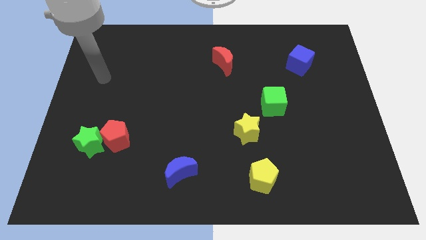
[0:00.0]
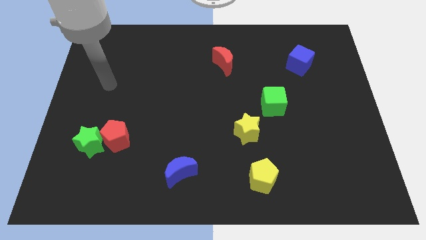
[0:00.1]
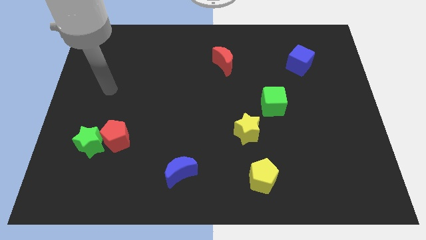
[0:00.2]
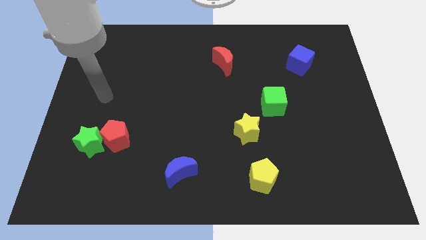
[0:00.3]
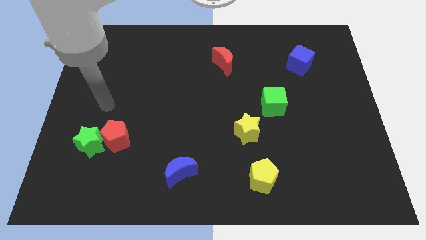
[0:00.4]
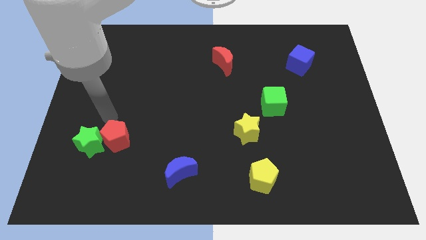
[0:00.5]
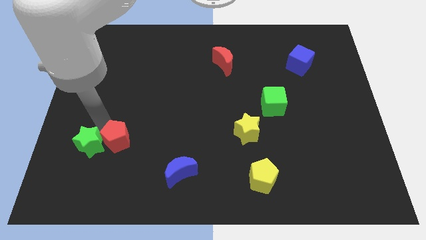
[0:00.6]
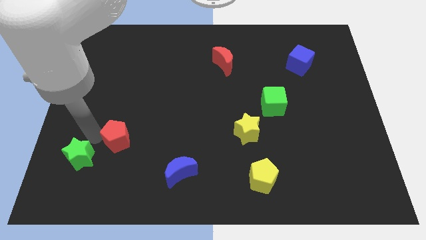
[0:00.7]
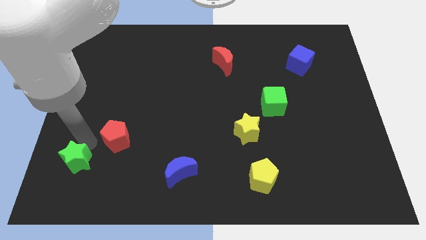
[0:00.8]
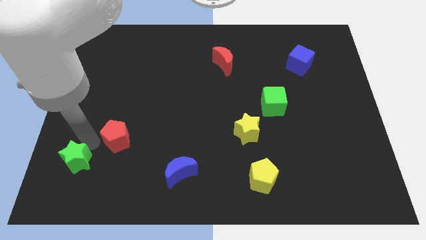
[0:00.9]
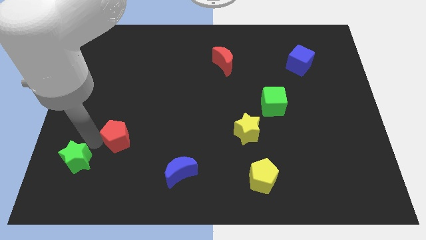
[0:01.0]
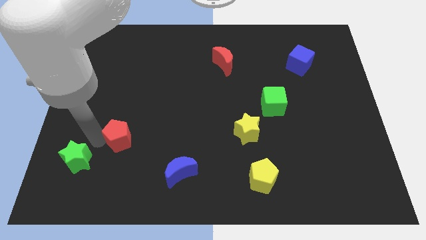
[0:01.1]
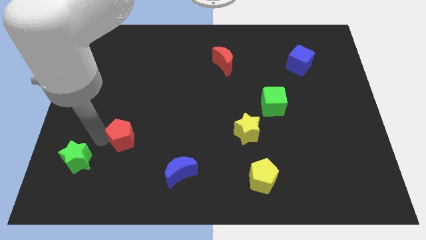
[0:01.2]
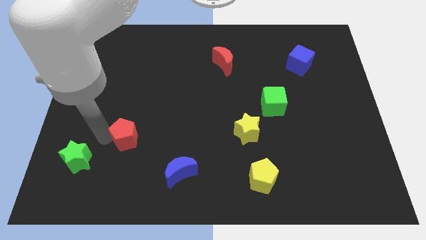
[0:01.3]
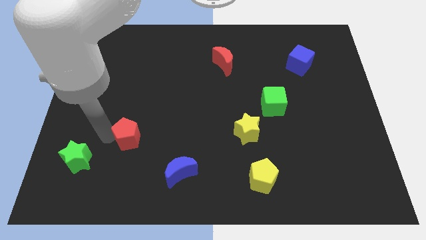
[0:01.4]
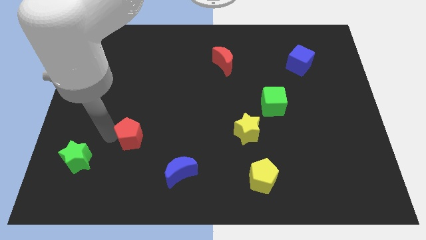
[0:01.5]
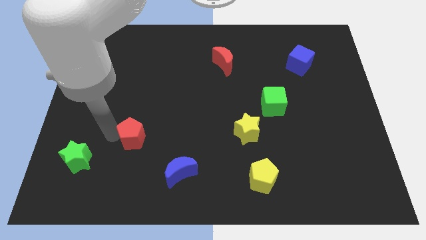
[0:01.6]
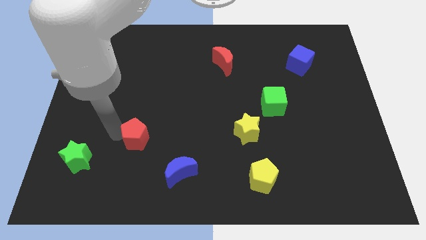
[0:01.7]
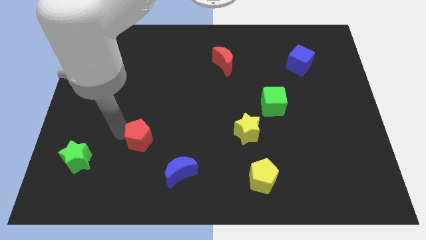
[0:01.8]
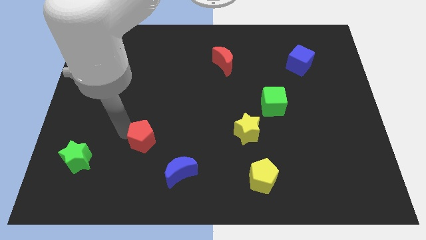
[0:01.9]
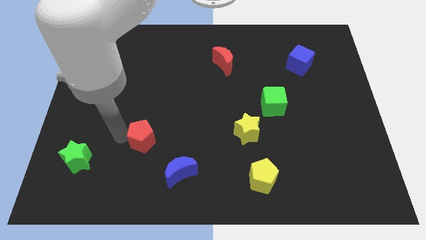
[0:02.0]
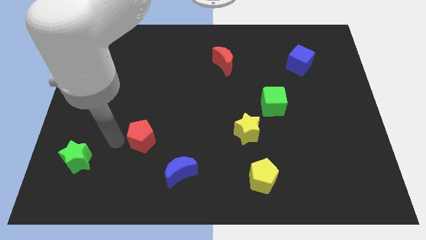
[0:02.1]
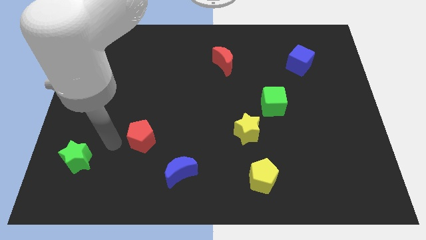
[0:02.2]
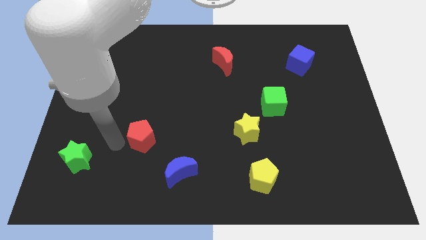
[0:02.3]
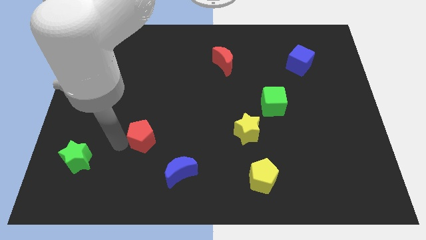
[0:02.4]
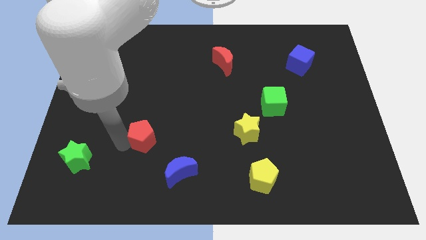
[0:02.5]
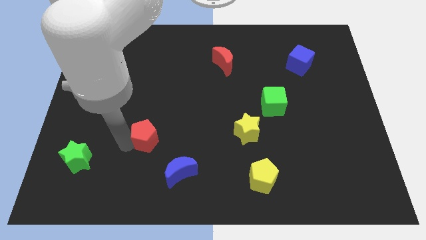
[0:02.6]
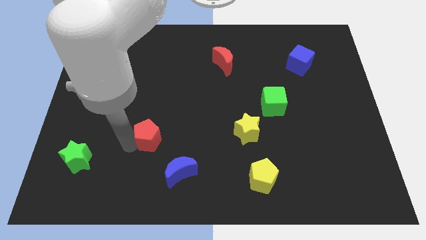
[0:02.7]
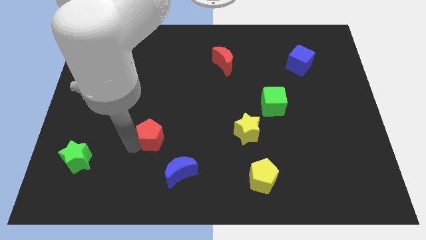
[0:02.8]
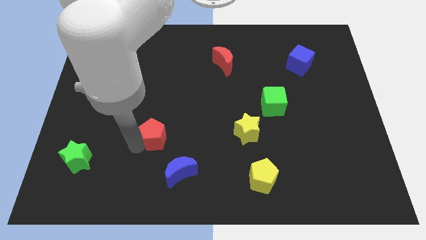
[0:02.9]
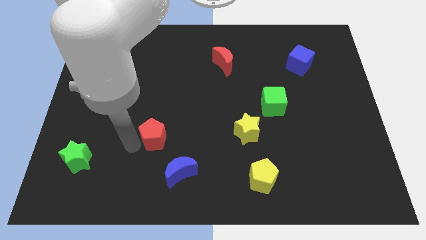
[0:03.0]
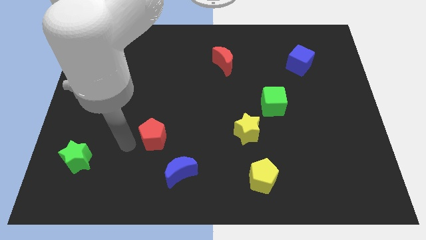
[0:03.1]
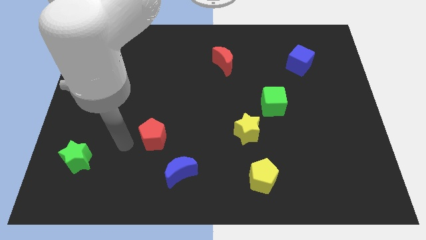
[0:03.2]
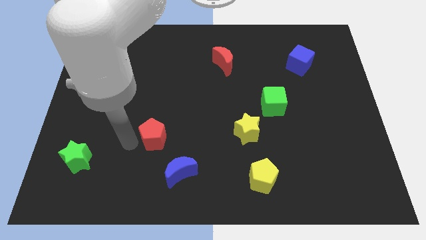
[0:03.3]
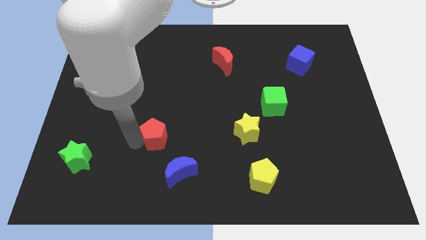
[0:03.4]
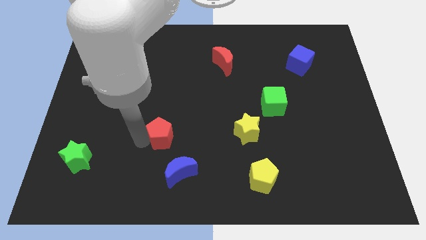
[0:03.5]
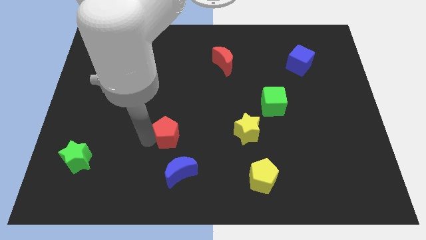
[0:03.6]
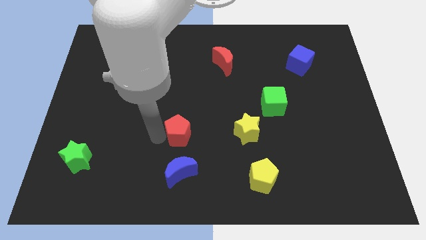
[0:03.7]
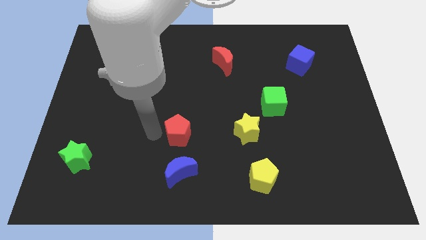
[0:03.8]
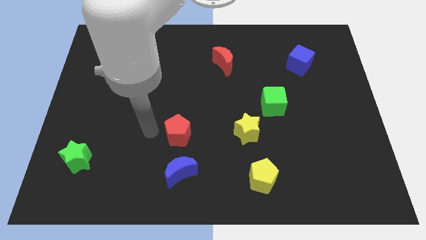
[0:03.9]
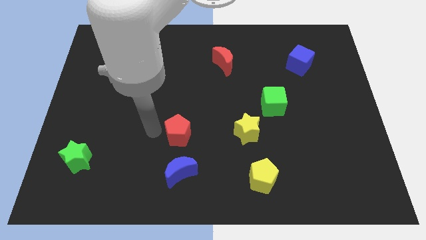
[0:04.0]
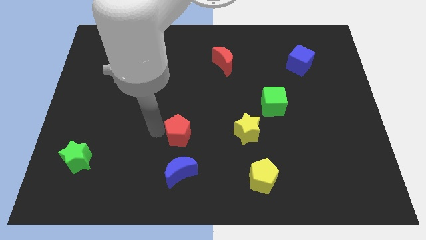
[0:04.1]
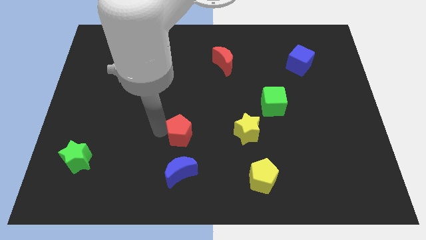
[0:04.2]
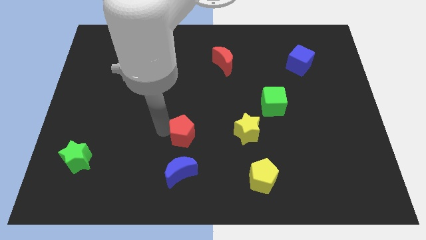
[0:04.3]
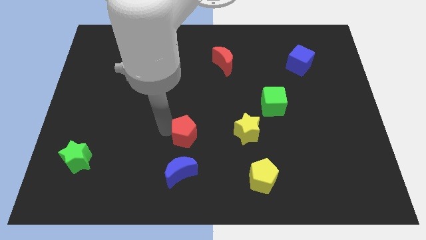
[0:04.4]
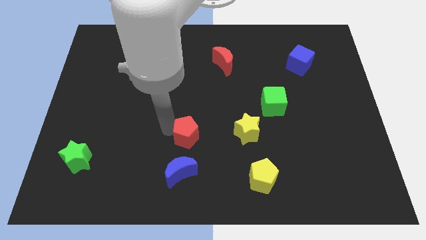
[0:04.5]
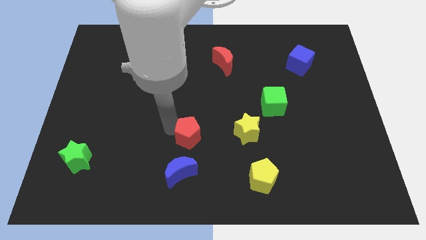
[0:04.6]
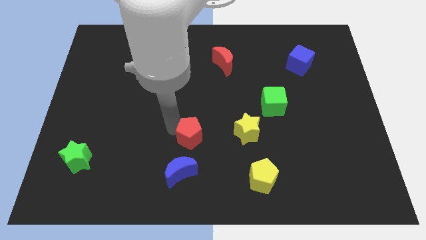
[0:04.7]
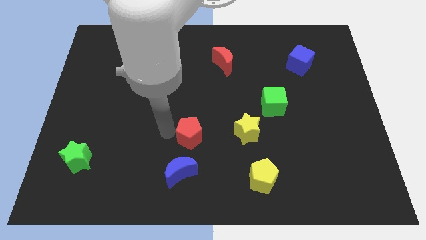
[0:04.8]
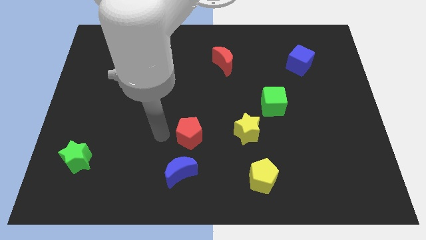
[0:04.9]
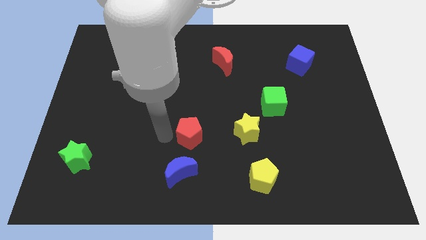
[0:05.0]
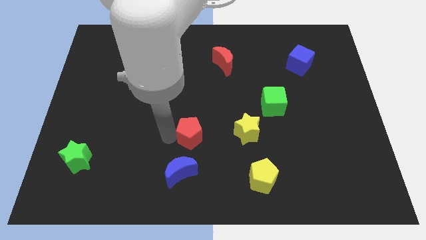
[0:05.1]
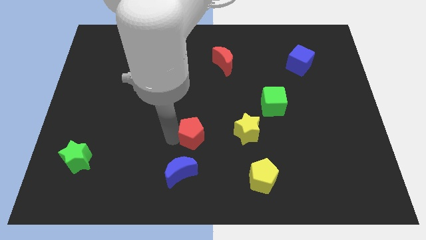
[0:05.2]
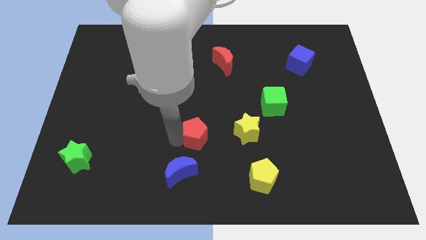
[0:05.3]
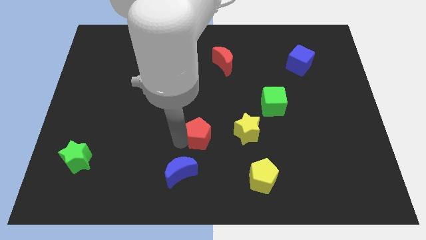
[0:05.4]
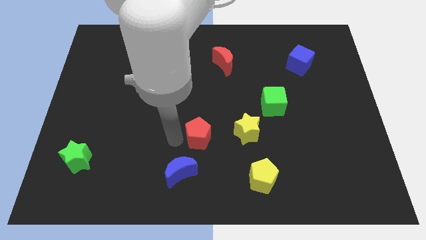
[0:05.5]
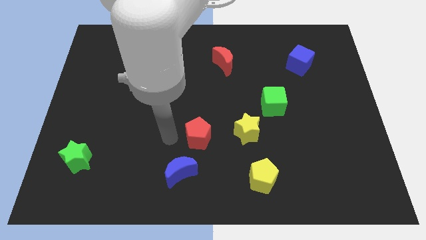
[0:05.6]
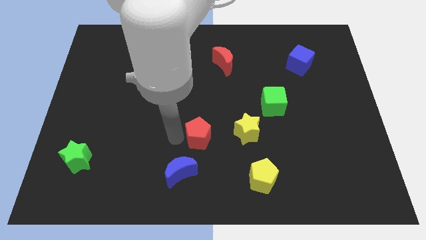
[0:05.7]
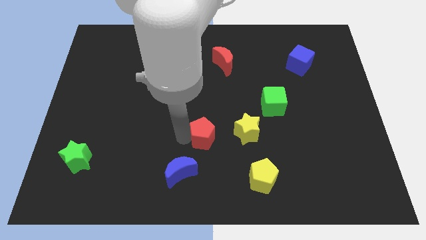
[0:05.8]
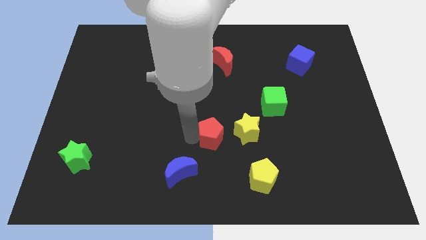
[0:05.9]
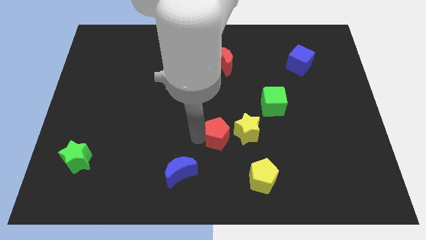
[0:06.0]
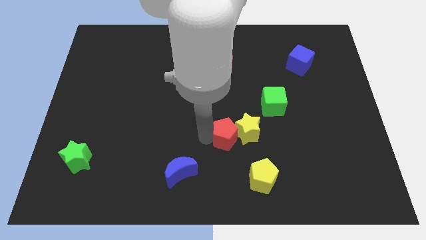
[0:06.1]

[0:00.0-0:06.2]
move the red pentagon to the yellow star

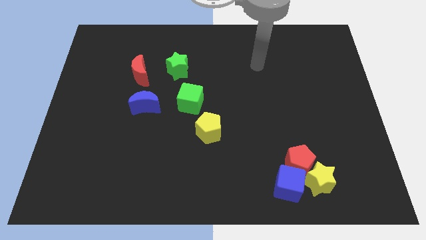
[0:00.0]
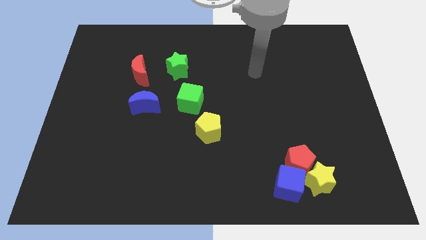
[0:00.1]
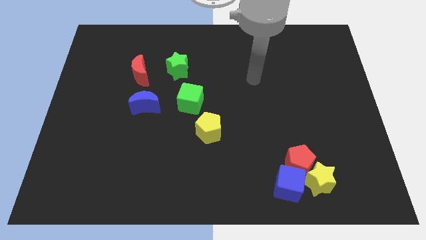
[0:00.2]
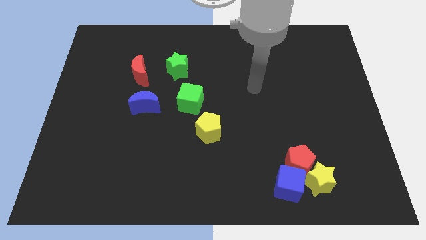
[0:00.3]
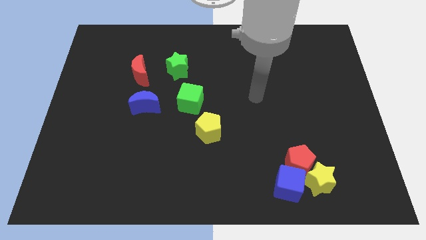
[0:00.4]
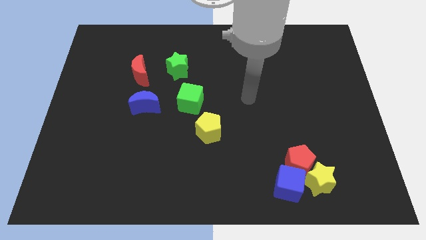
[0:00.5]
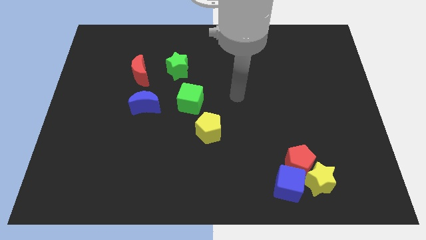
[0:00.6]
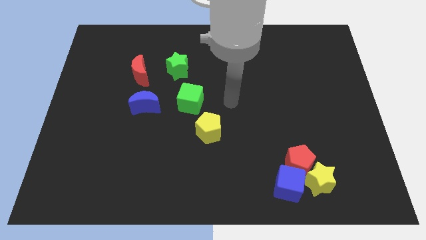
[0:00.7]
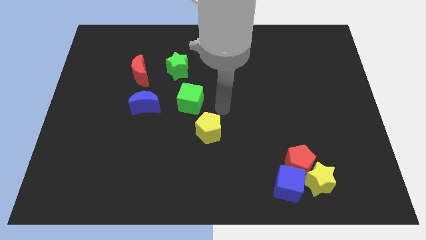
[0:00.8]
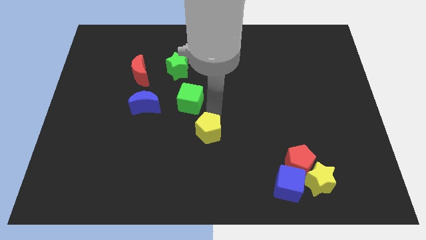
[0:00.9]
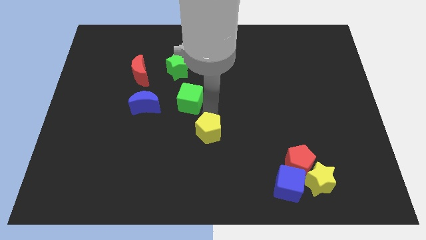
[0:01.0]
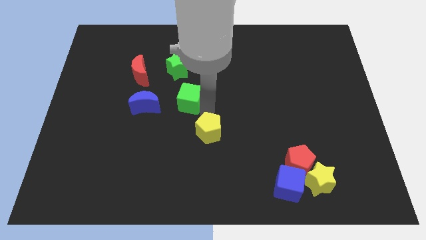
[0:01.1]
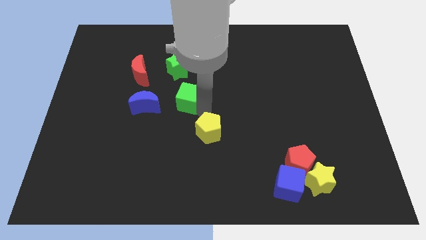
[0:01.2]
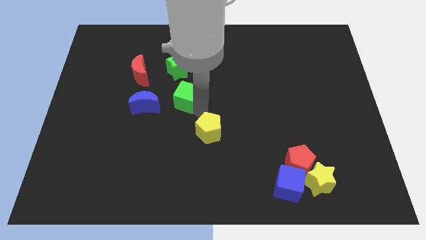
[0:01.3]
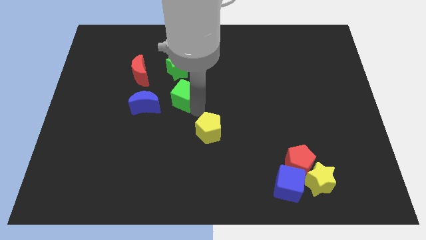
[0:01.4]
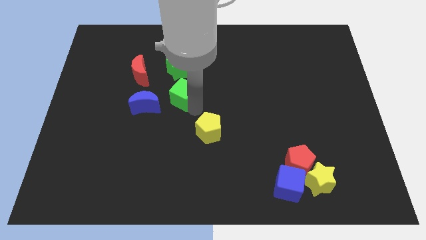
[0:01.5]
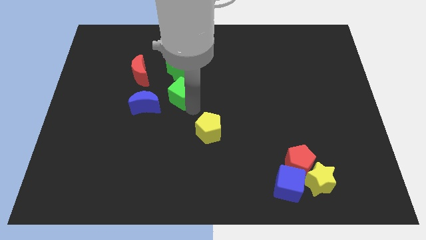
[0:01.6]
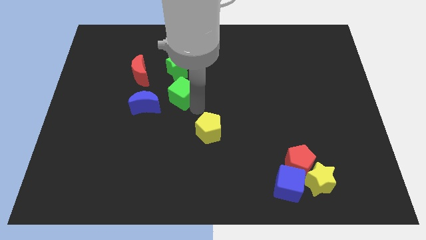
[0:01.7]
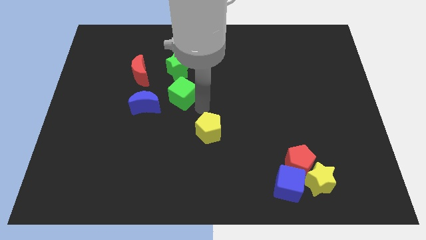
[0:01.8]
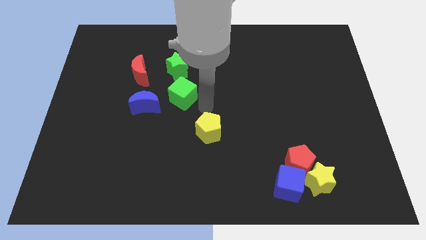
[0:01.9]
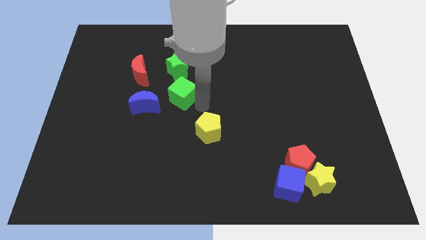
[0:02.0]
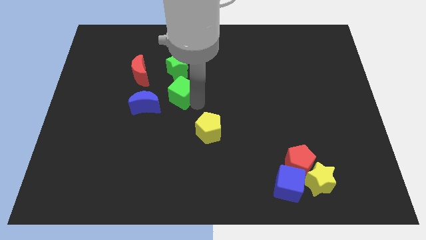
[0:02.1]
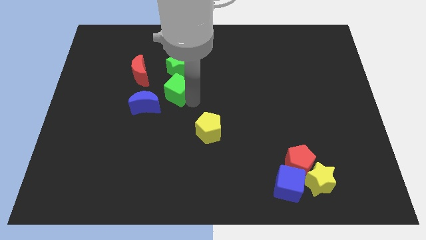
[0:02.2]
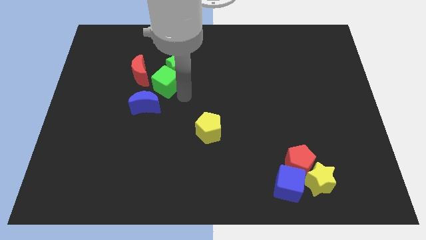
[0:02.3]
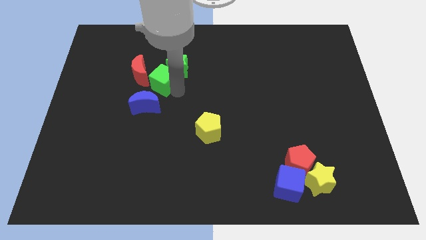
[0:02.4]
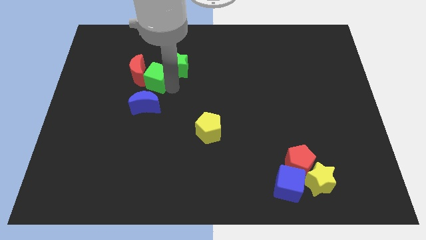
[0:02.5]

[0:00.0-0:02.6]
put the green cube next to the red moon
